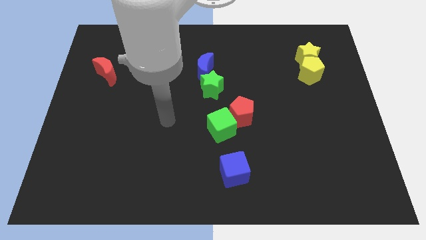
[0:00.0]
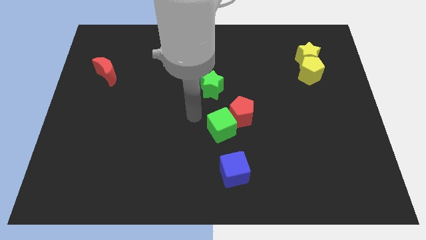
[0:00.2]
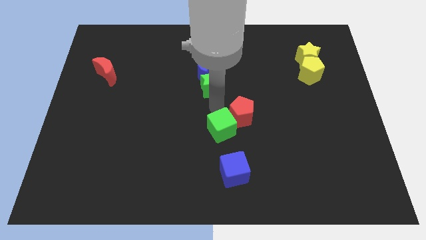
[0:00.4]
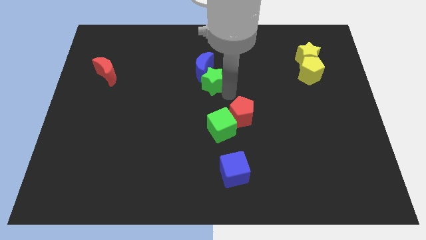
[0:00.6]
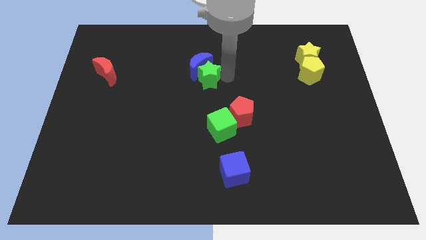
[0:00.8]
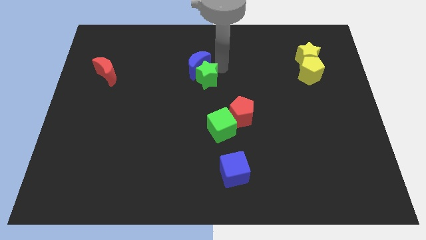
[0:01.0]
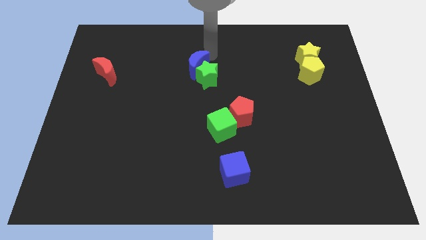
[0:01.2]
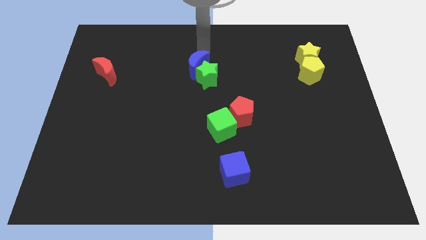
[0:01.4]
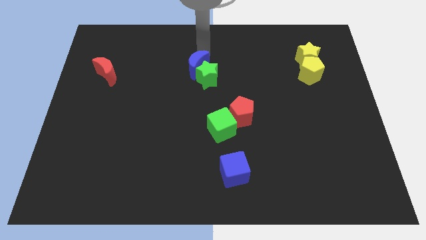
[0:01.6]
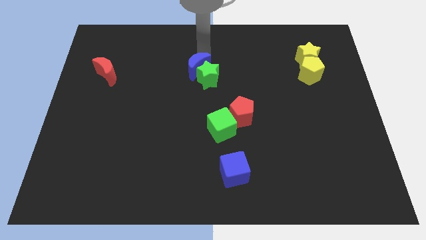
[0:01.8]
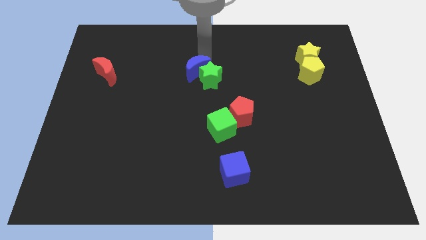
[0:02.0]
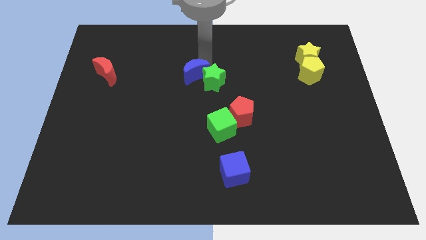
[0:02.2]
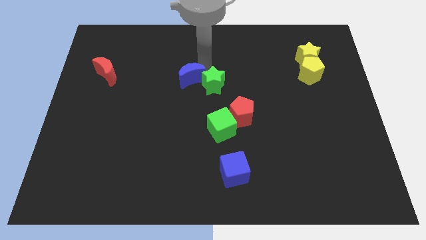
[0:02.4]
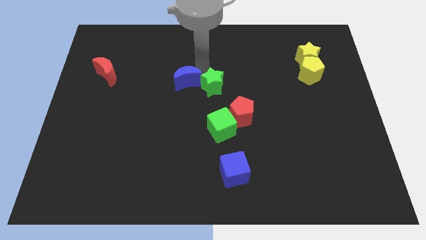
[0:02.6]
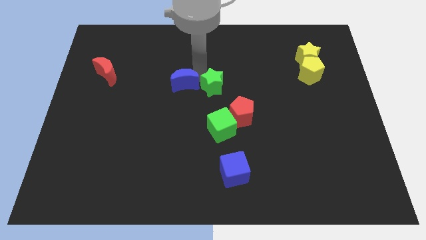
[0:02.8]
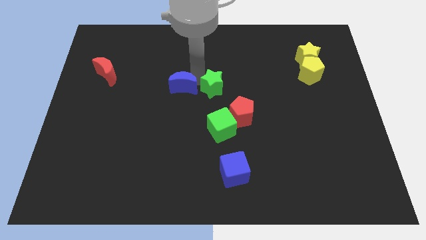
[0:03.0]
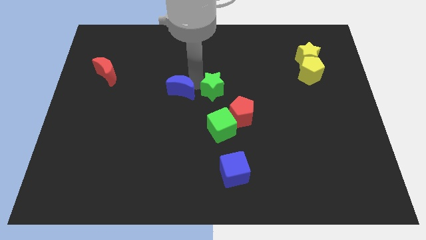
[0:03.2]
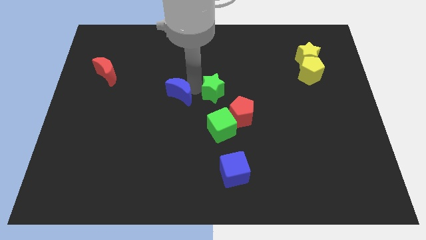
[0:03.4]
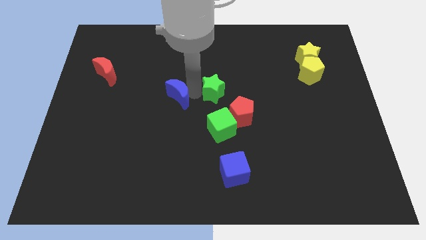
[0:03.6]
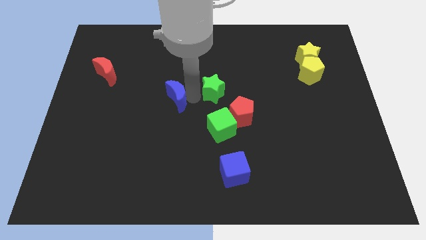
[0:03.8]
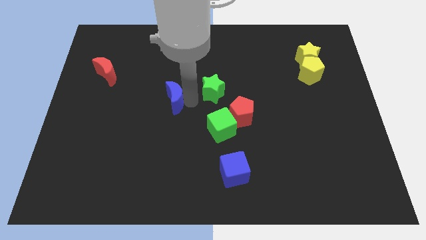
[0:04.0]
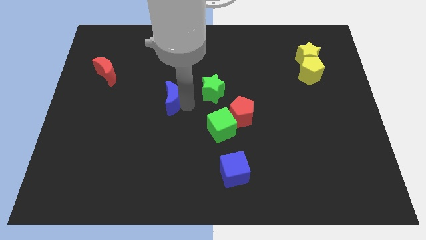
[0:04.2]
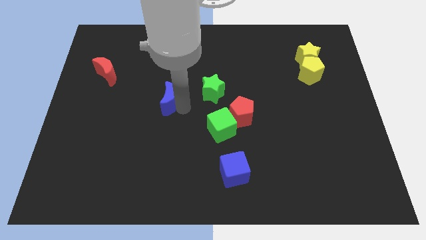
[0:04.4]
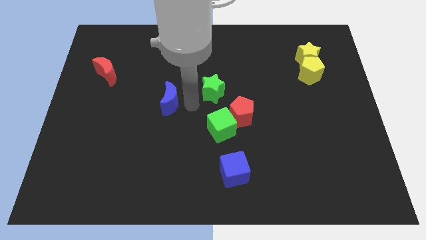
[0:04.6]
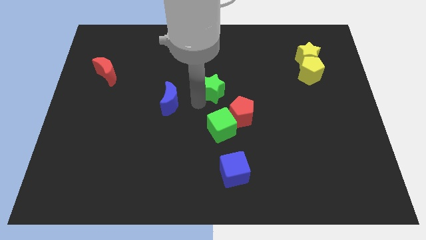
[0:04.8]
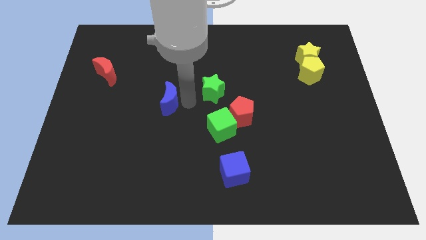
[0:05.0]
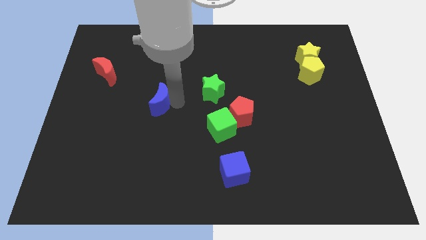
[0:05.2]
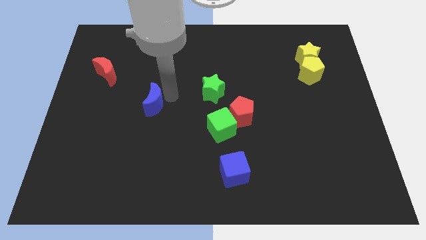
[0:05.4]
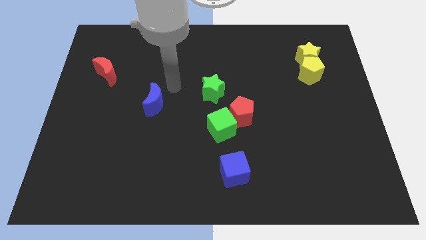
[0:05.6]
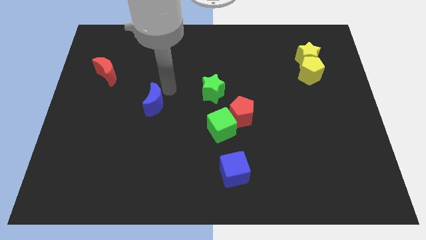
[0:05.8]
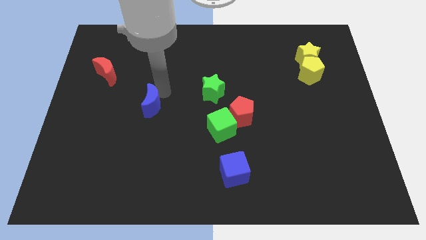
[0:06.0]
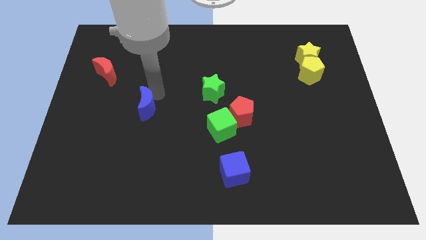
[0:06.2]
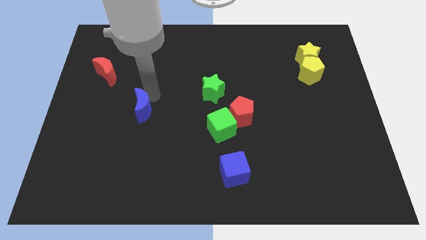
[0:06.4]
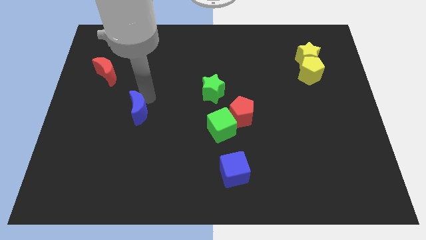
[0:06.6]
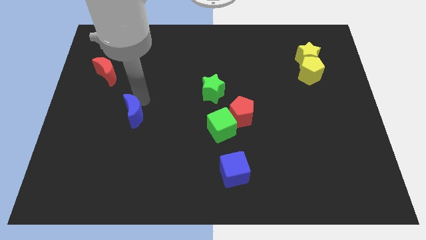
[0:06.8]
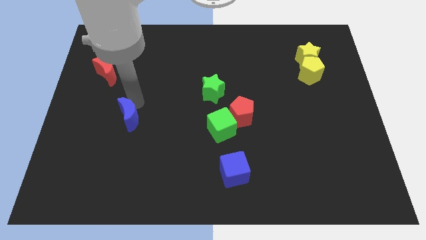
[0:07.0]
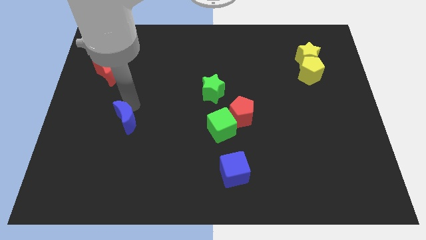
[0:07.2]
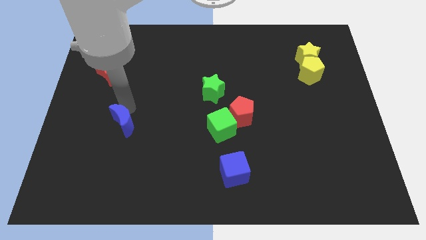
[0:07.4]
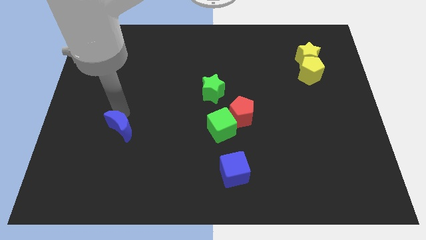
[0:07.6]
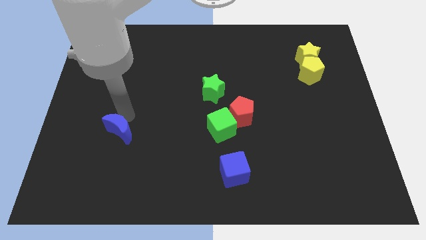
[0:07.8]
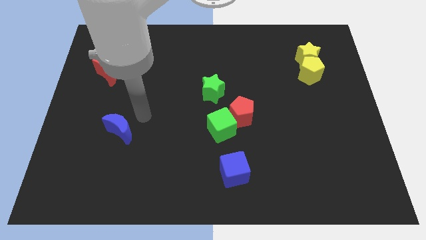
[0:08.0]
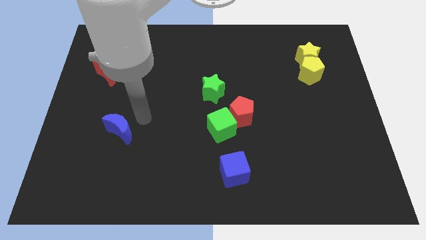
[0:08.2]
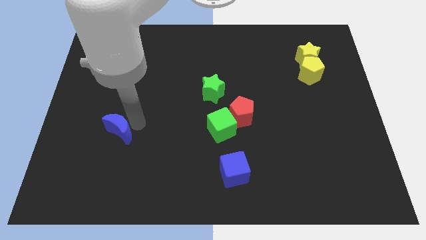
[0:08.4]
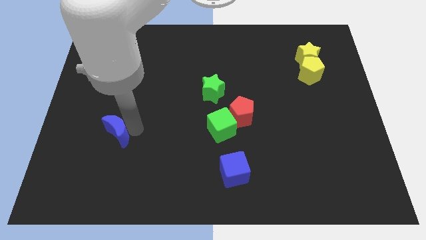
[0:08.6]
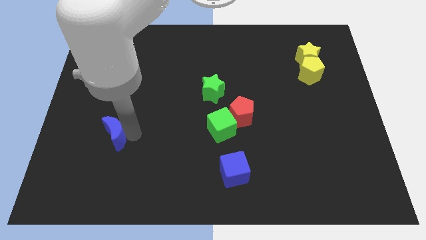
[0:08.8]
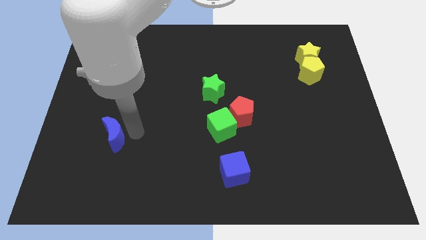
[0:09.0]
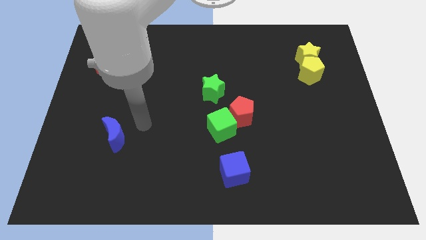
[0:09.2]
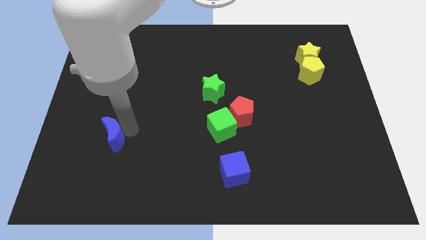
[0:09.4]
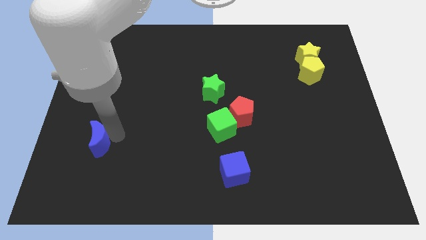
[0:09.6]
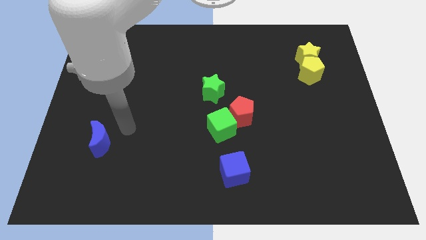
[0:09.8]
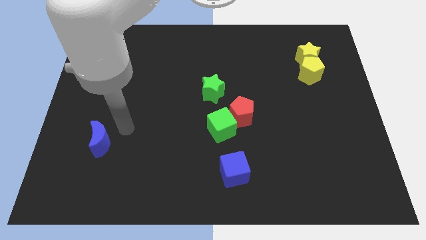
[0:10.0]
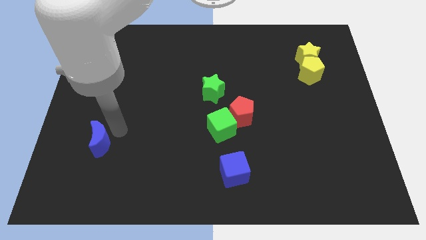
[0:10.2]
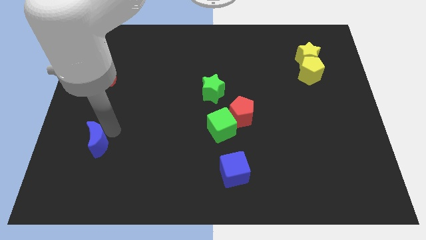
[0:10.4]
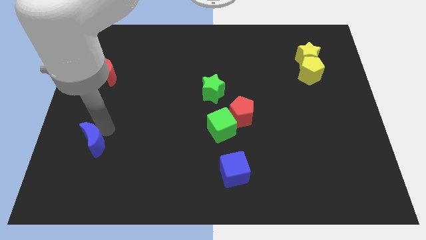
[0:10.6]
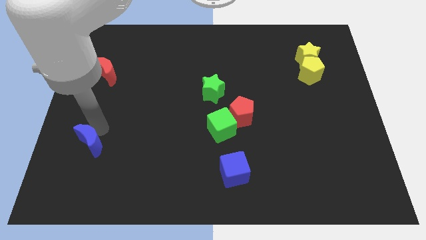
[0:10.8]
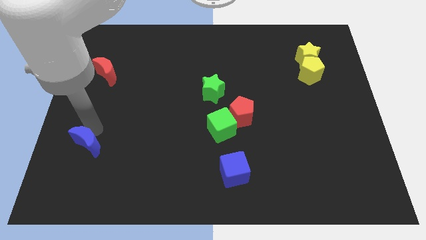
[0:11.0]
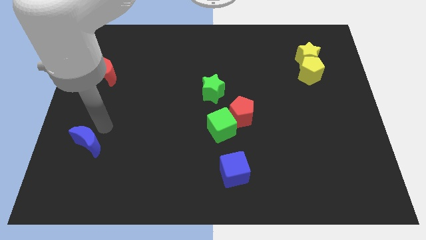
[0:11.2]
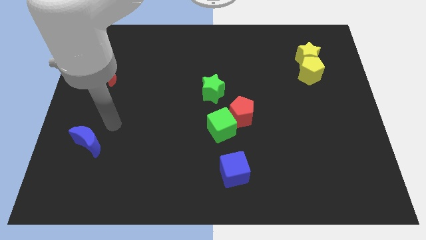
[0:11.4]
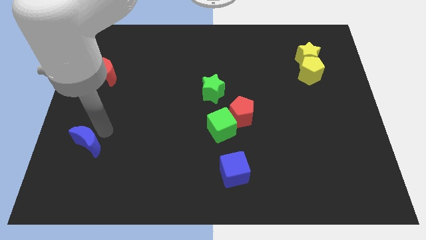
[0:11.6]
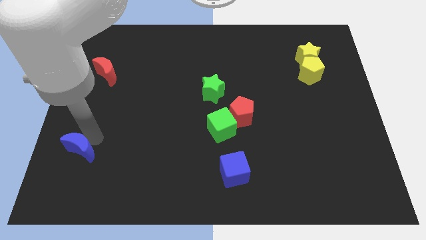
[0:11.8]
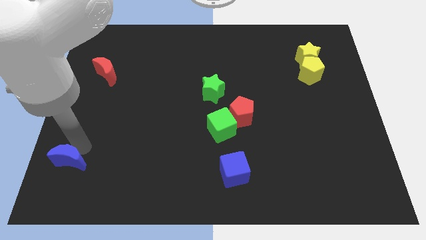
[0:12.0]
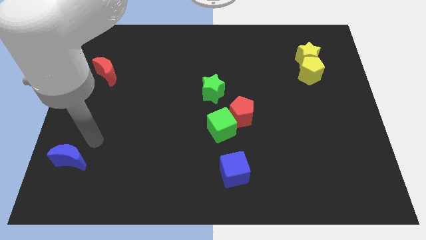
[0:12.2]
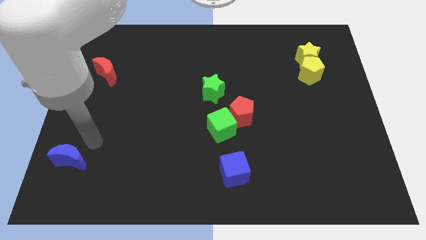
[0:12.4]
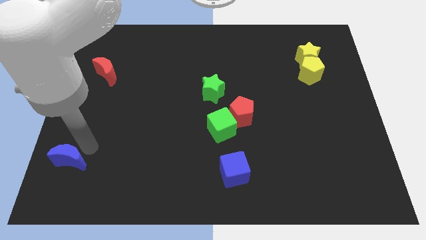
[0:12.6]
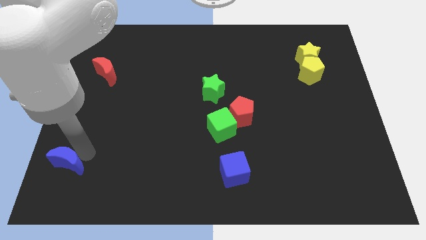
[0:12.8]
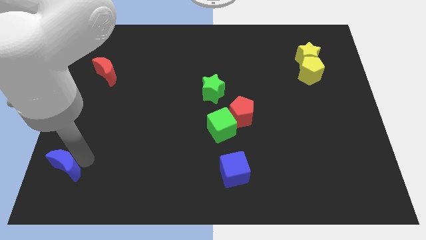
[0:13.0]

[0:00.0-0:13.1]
move the blue moon to the bottom left
